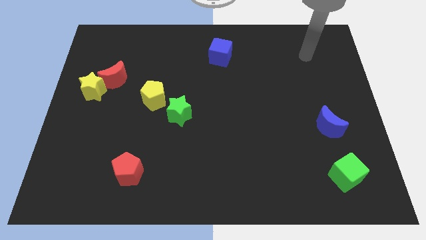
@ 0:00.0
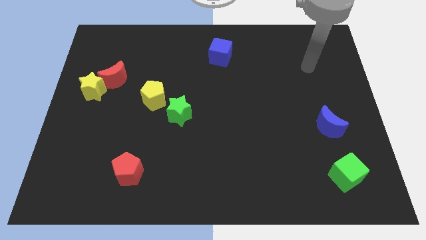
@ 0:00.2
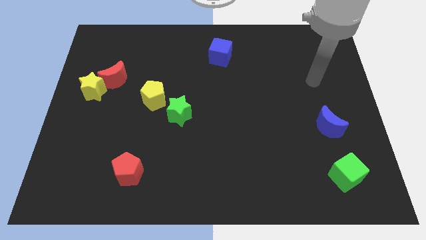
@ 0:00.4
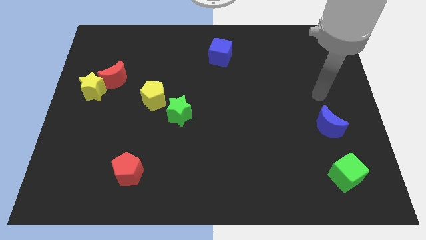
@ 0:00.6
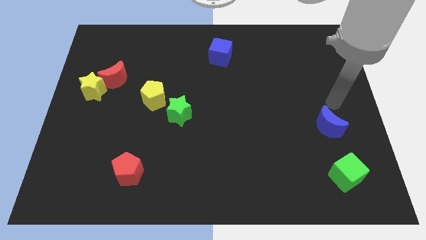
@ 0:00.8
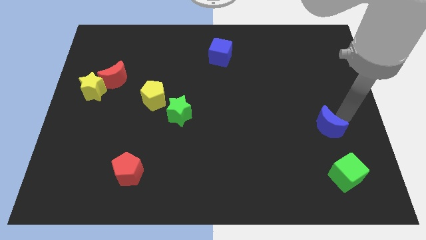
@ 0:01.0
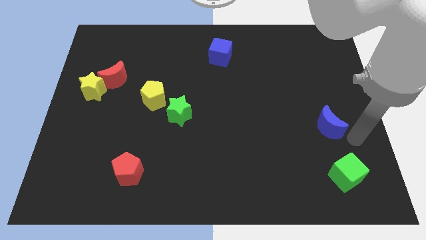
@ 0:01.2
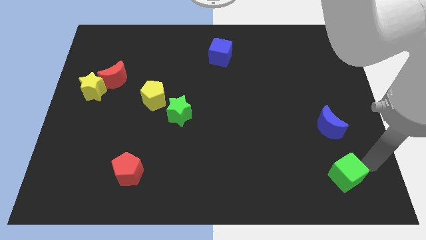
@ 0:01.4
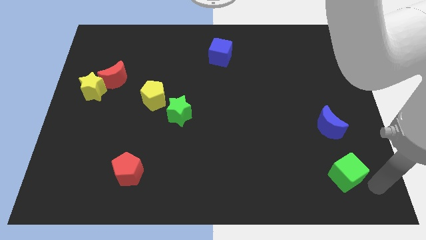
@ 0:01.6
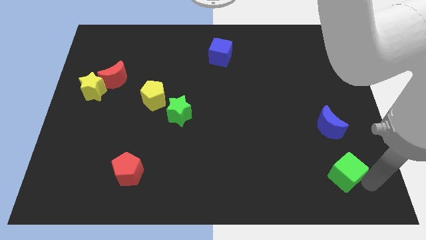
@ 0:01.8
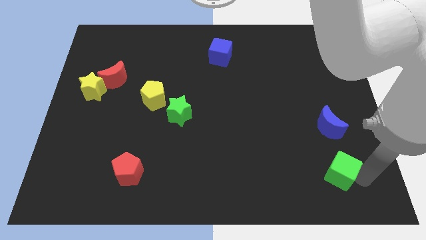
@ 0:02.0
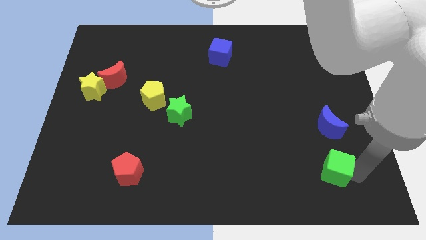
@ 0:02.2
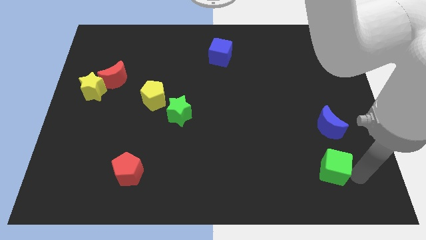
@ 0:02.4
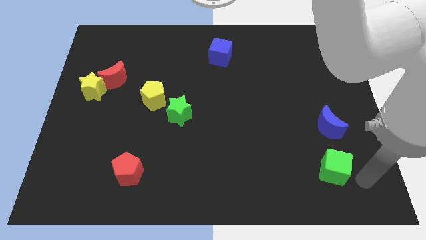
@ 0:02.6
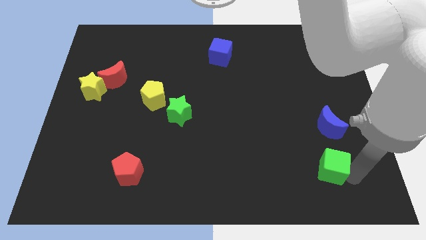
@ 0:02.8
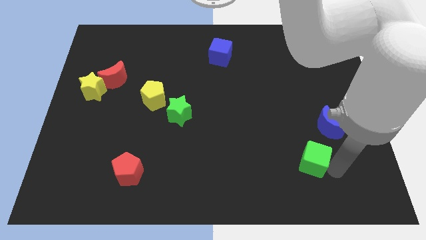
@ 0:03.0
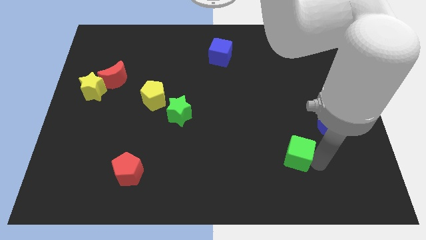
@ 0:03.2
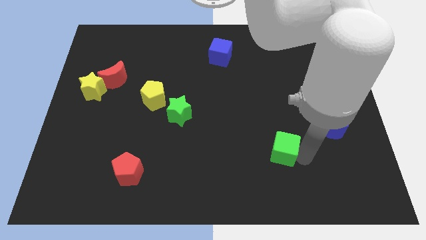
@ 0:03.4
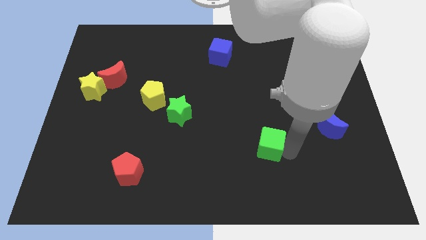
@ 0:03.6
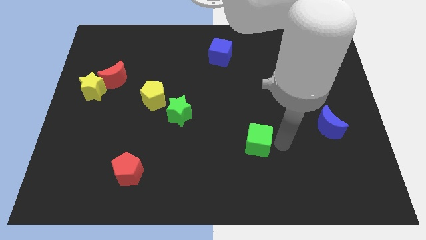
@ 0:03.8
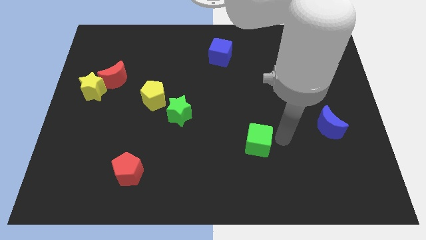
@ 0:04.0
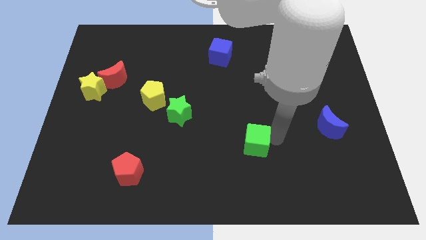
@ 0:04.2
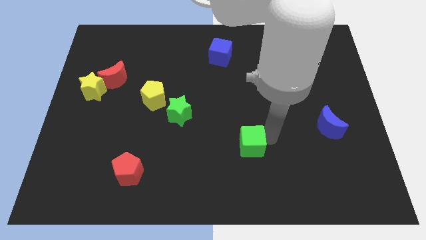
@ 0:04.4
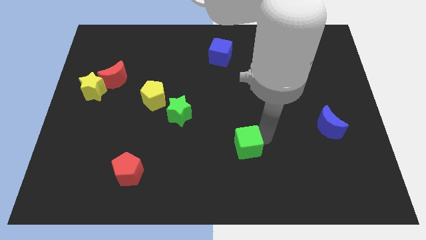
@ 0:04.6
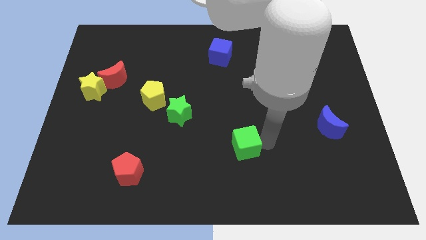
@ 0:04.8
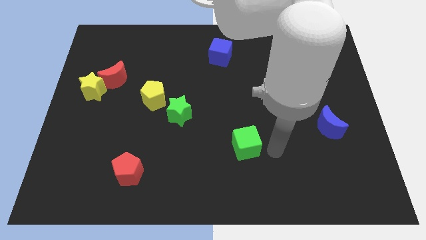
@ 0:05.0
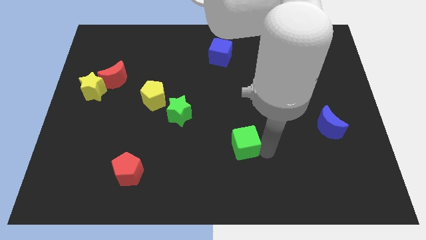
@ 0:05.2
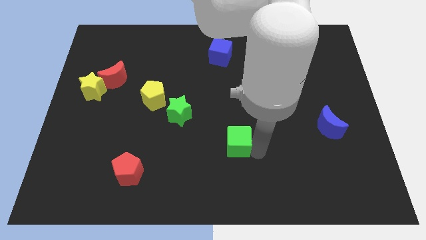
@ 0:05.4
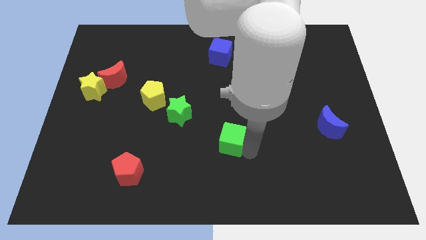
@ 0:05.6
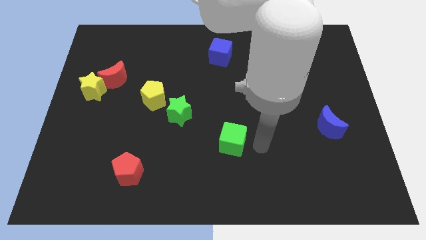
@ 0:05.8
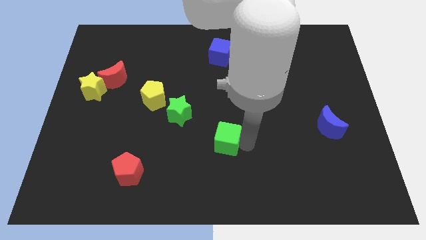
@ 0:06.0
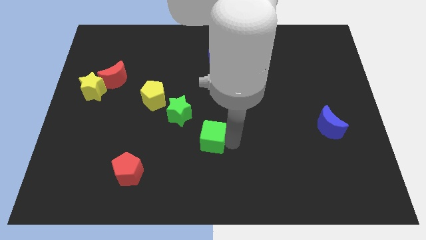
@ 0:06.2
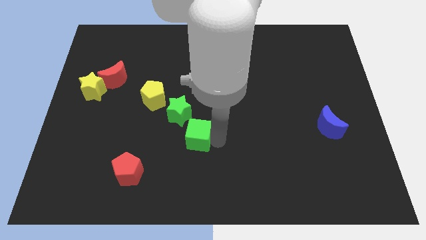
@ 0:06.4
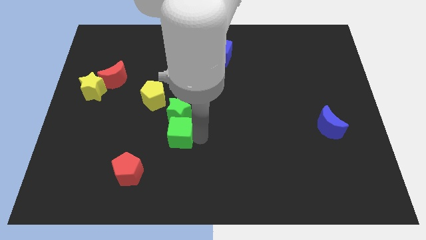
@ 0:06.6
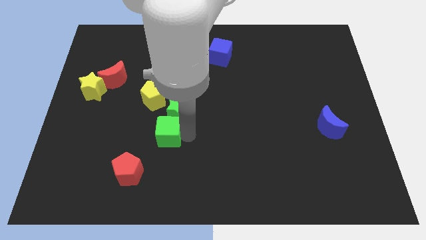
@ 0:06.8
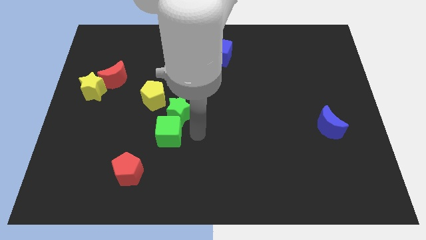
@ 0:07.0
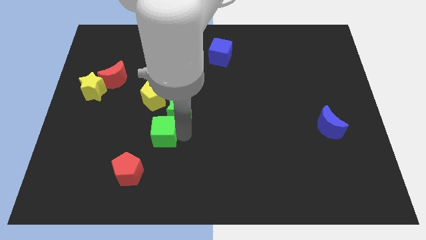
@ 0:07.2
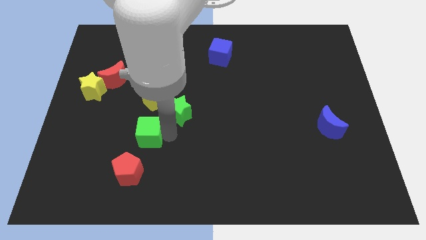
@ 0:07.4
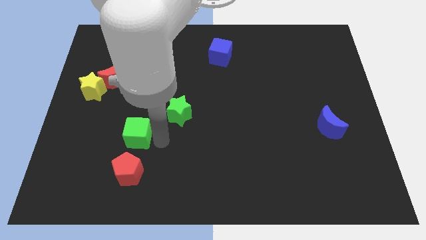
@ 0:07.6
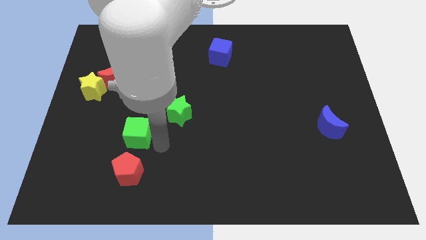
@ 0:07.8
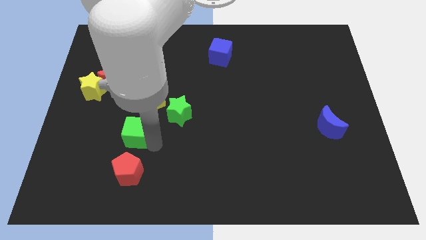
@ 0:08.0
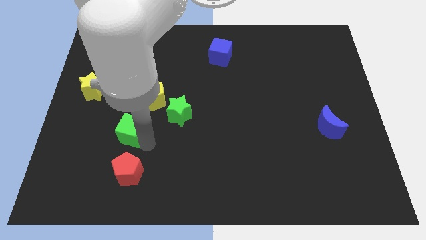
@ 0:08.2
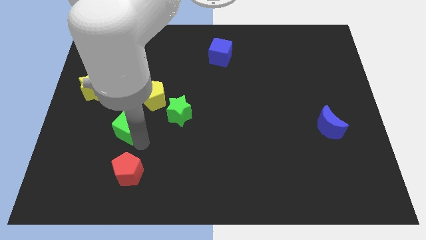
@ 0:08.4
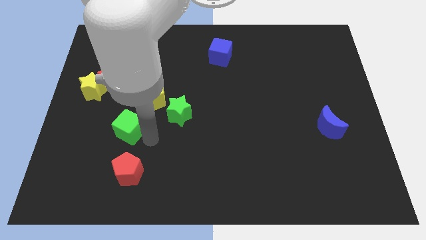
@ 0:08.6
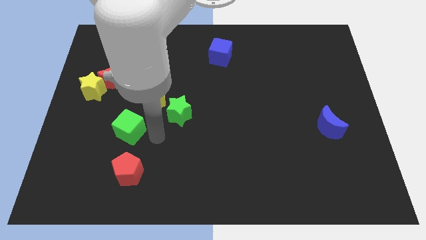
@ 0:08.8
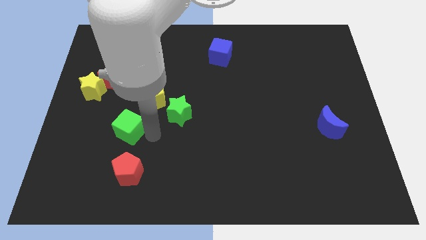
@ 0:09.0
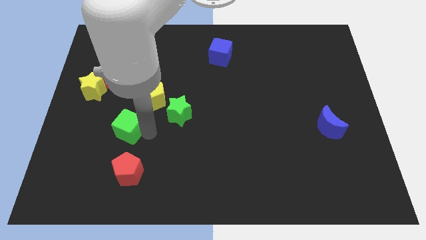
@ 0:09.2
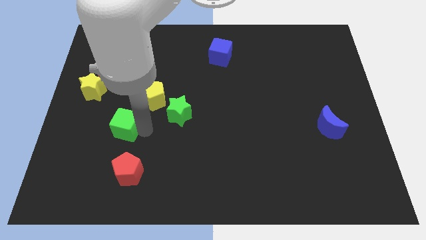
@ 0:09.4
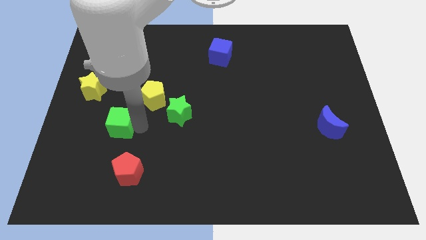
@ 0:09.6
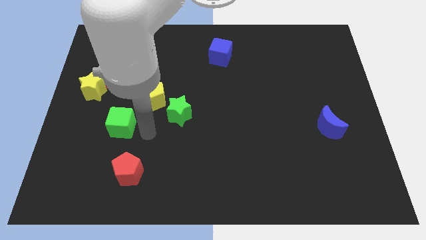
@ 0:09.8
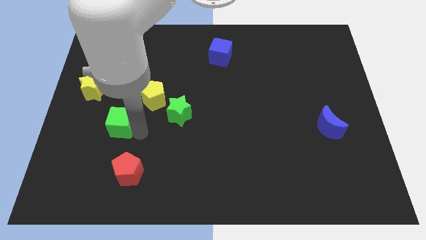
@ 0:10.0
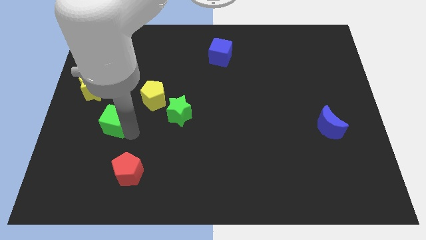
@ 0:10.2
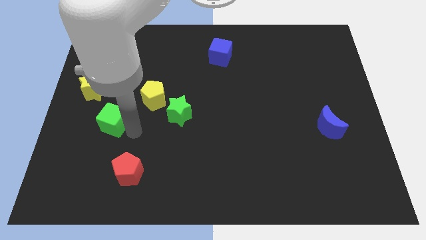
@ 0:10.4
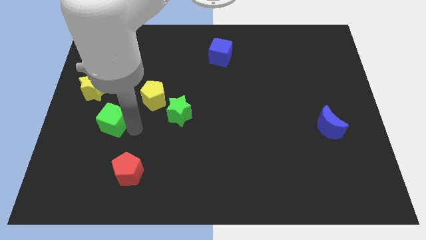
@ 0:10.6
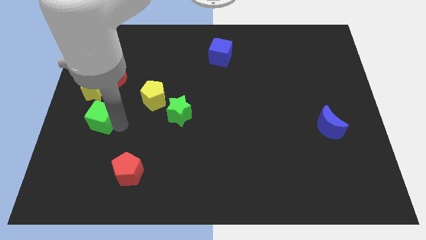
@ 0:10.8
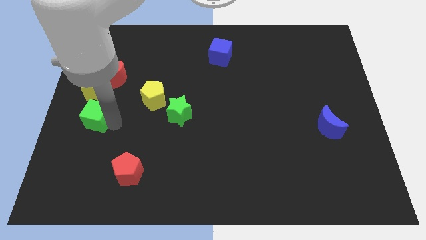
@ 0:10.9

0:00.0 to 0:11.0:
slide the green cube to the center left

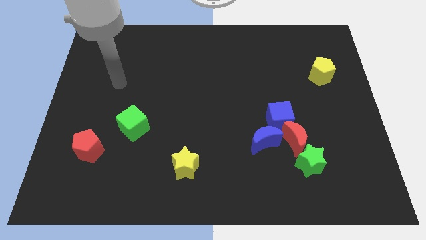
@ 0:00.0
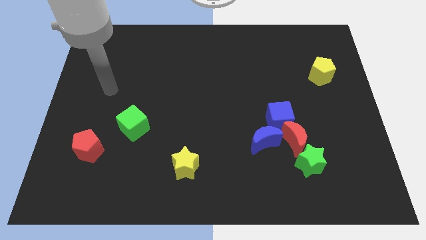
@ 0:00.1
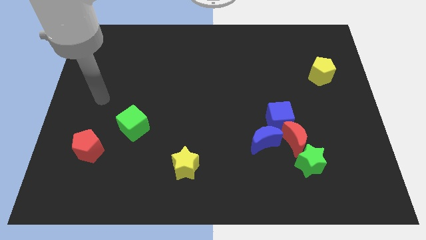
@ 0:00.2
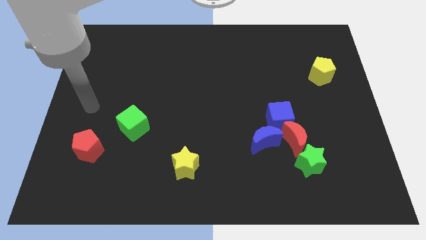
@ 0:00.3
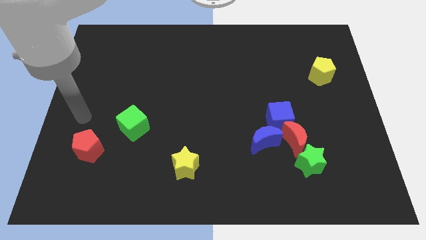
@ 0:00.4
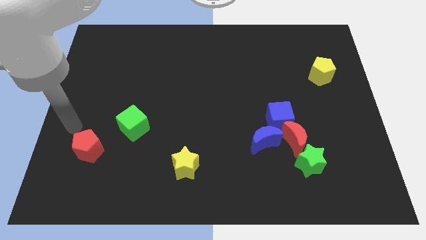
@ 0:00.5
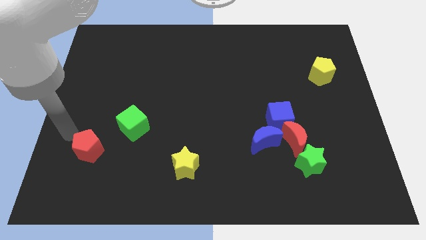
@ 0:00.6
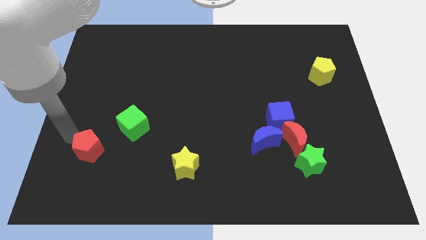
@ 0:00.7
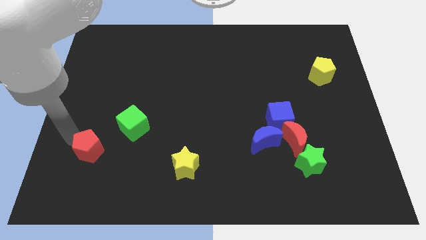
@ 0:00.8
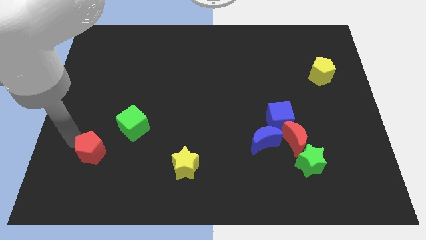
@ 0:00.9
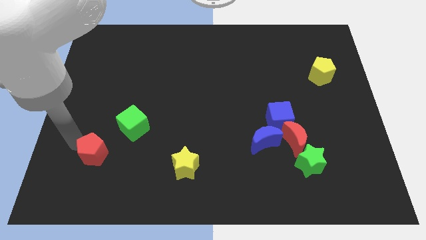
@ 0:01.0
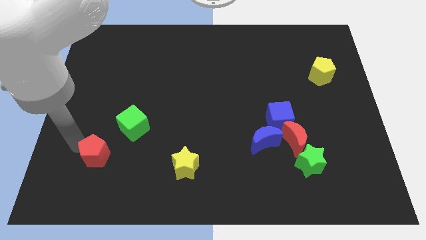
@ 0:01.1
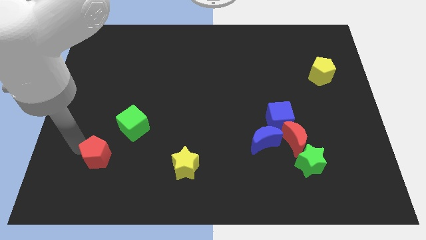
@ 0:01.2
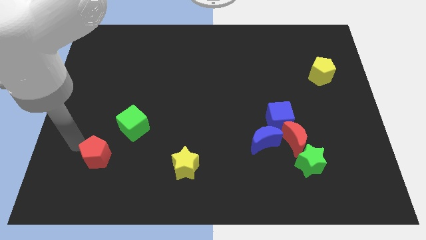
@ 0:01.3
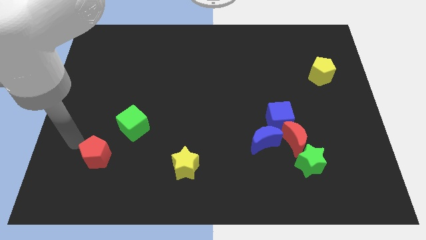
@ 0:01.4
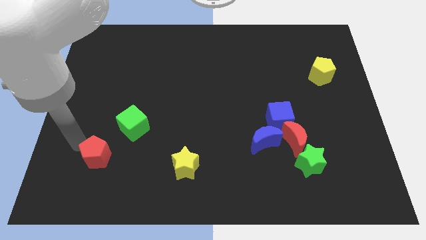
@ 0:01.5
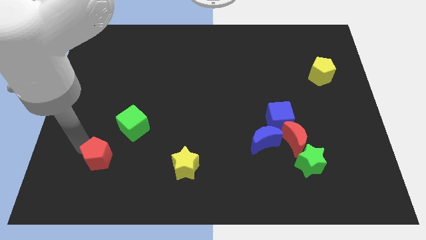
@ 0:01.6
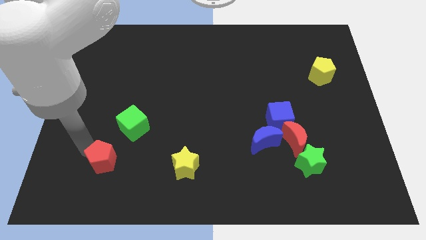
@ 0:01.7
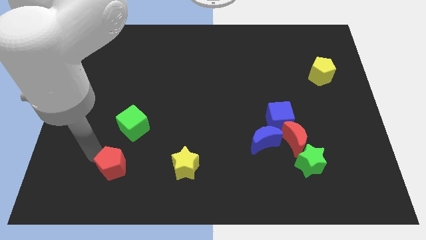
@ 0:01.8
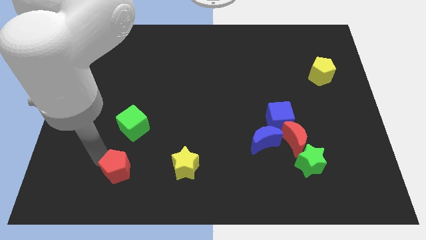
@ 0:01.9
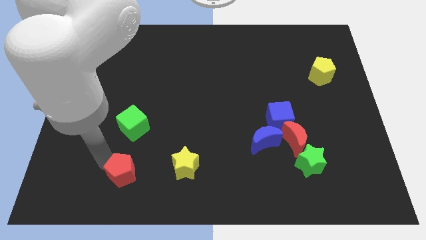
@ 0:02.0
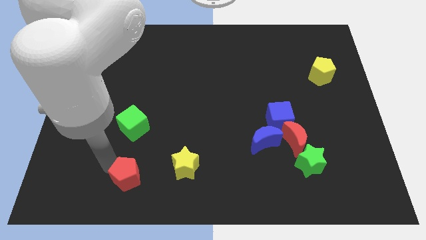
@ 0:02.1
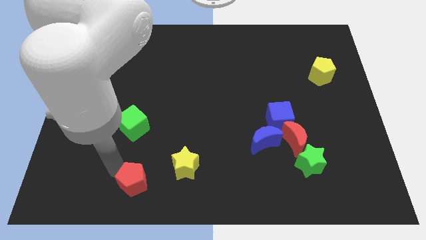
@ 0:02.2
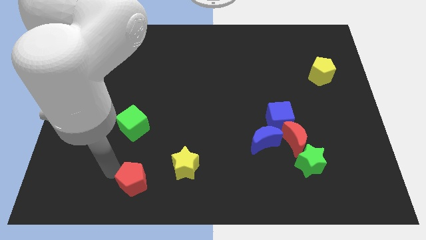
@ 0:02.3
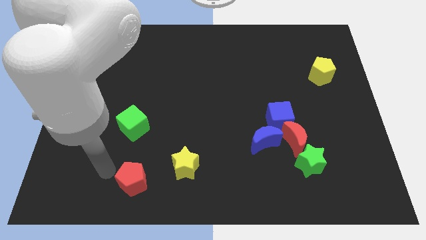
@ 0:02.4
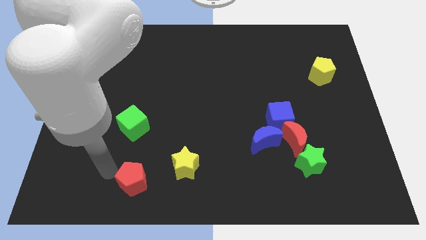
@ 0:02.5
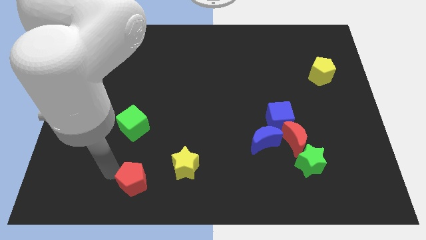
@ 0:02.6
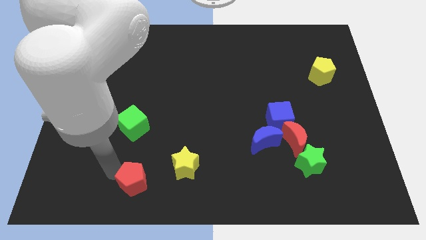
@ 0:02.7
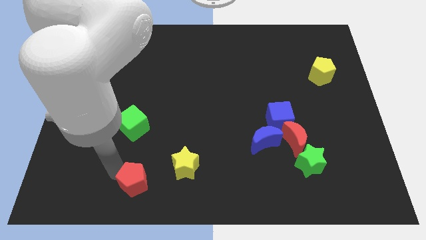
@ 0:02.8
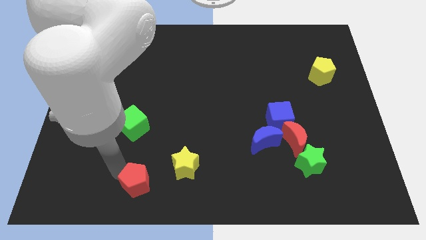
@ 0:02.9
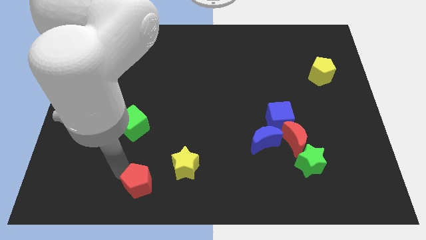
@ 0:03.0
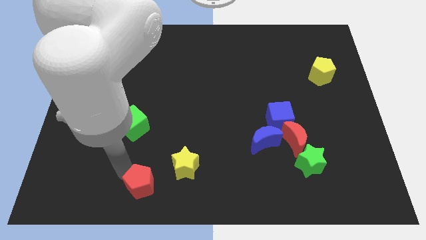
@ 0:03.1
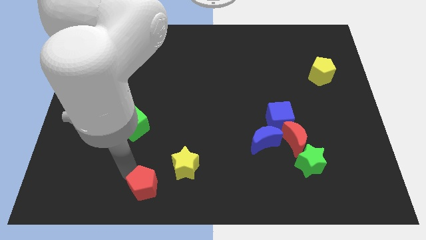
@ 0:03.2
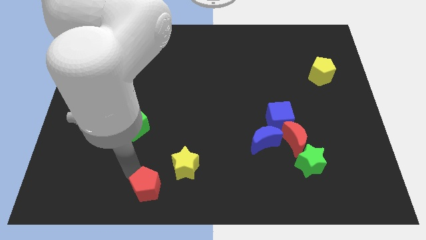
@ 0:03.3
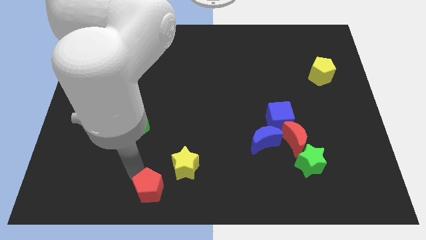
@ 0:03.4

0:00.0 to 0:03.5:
move the red pentagon to the bottom side
